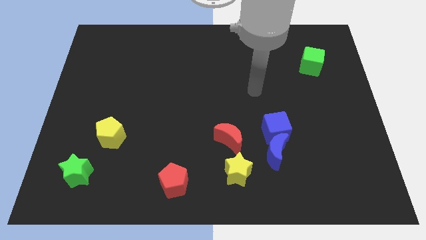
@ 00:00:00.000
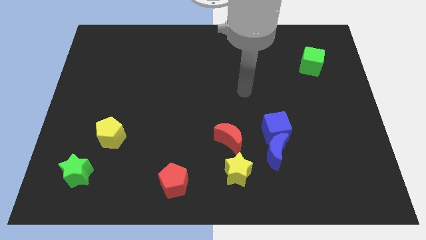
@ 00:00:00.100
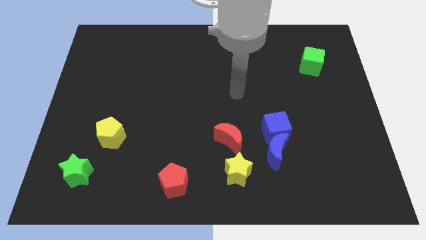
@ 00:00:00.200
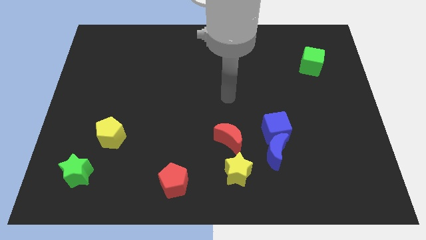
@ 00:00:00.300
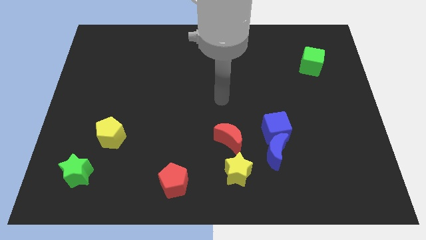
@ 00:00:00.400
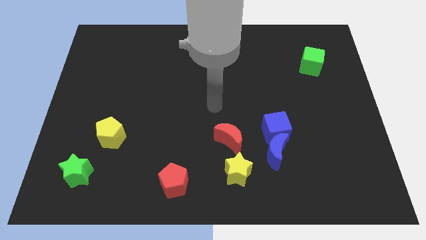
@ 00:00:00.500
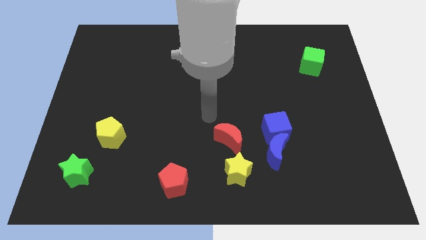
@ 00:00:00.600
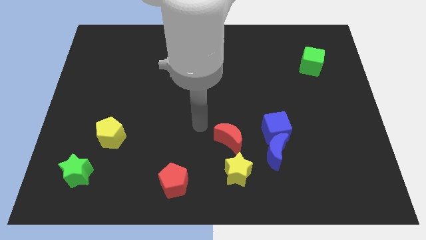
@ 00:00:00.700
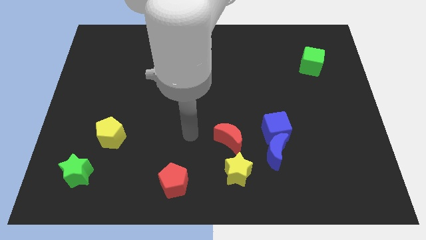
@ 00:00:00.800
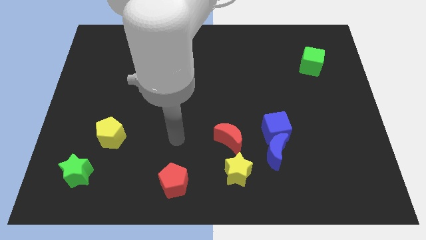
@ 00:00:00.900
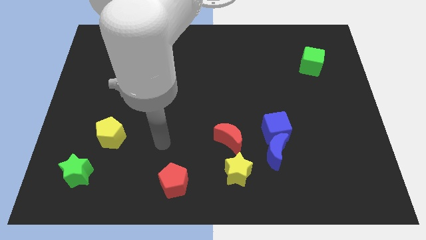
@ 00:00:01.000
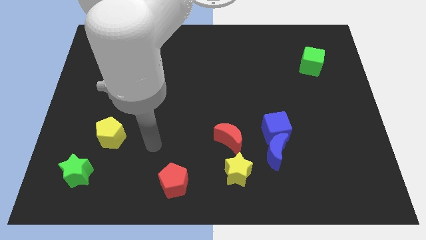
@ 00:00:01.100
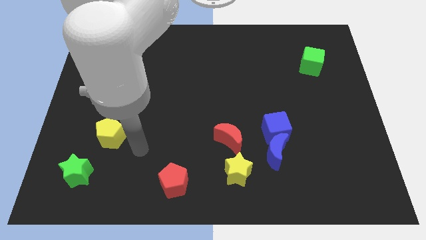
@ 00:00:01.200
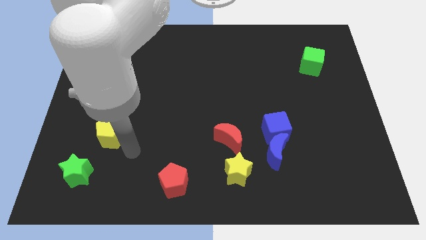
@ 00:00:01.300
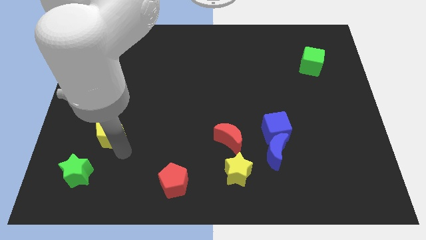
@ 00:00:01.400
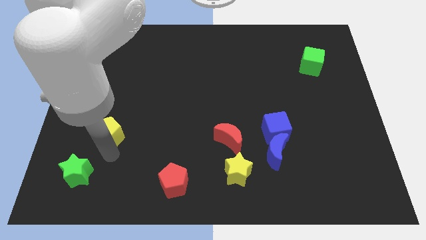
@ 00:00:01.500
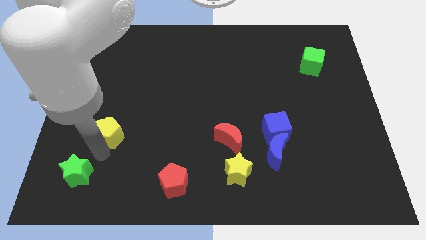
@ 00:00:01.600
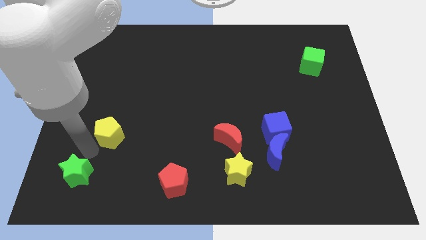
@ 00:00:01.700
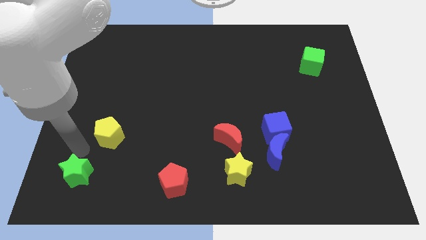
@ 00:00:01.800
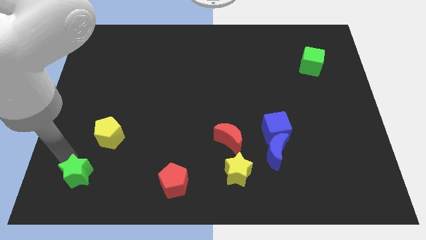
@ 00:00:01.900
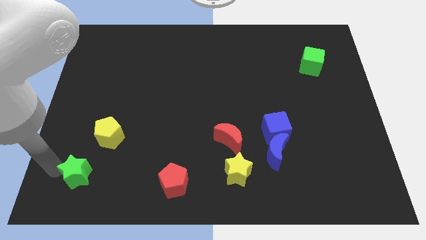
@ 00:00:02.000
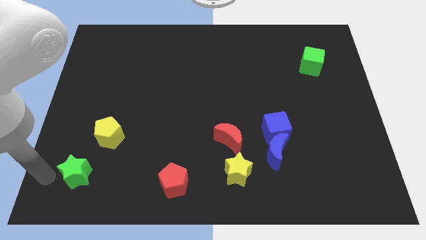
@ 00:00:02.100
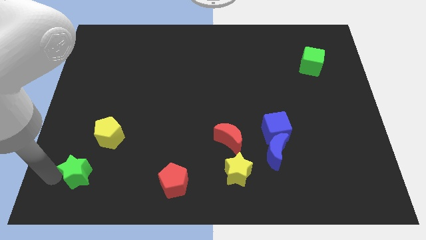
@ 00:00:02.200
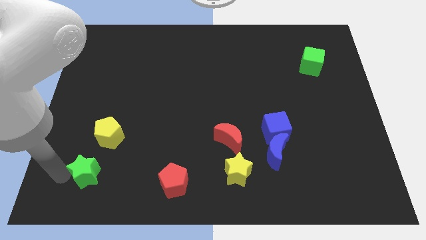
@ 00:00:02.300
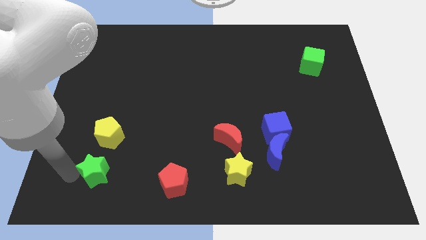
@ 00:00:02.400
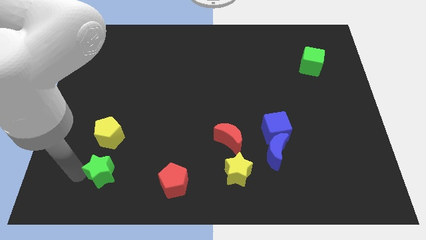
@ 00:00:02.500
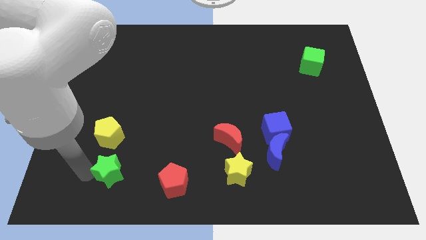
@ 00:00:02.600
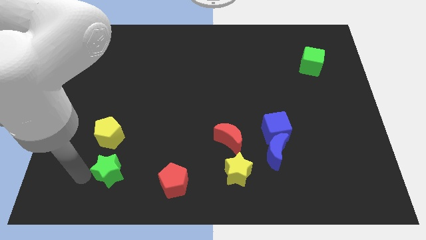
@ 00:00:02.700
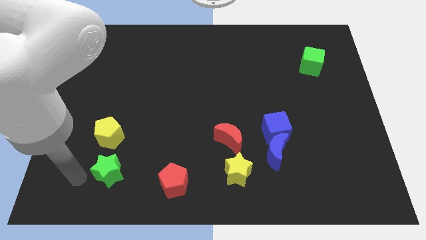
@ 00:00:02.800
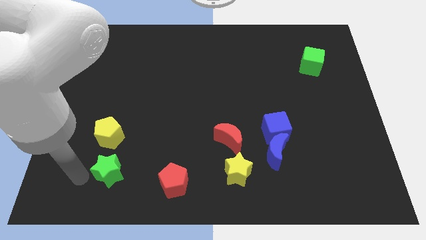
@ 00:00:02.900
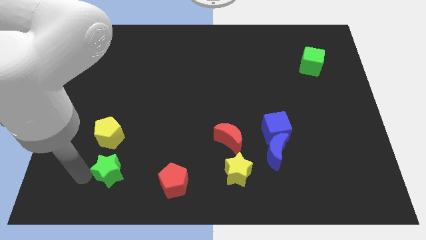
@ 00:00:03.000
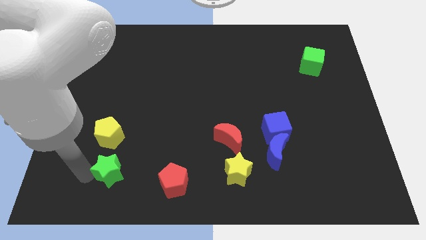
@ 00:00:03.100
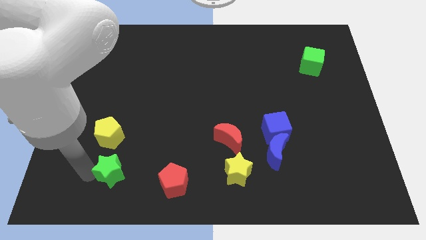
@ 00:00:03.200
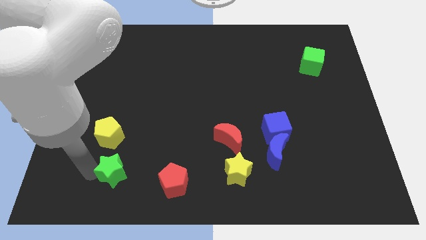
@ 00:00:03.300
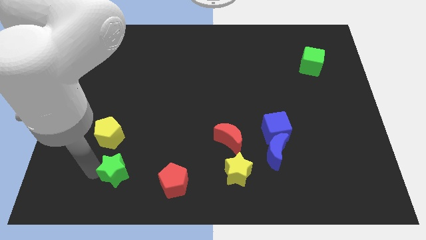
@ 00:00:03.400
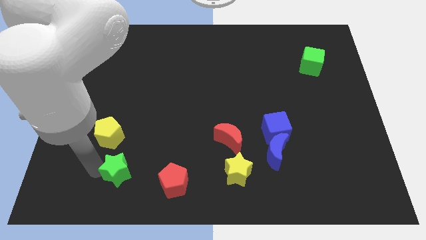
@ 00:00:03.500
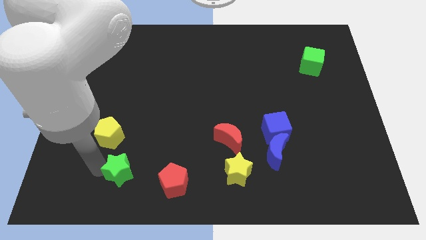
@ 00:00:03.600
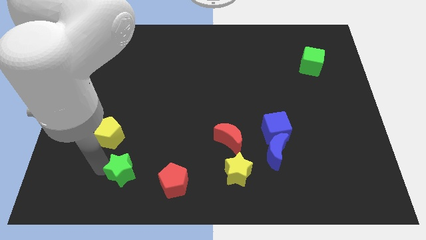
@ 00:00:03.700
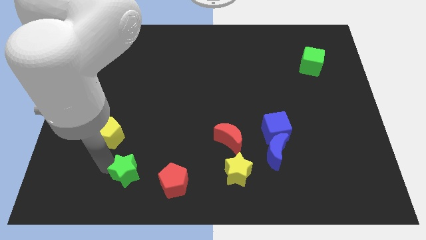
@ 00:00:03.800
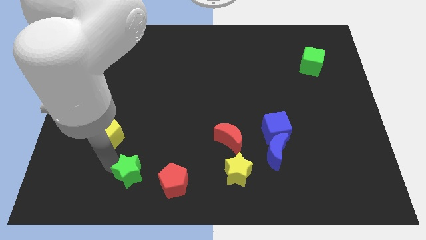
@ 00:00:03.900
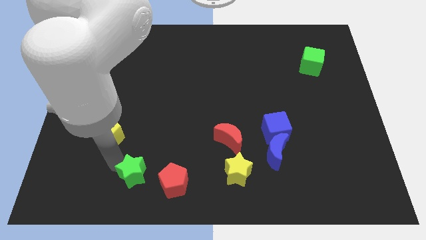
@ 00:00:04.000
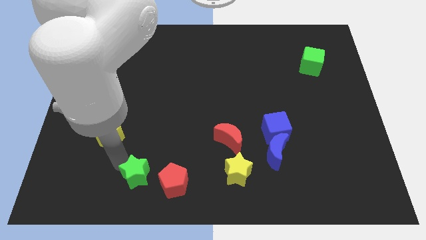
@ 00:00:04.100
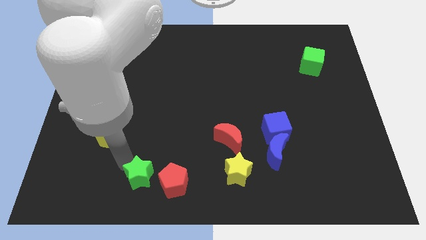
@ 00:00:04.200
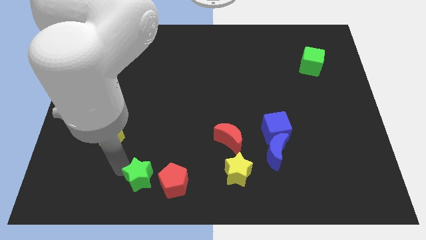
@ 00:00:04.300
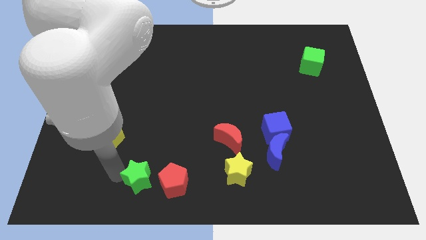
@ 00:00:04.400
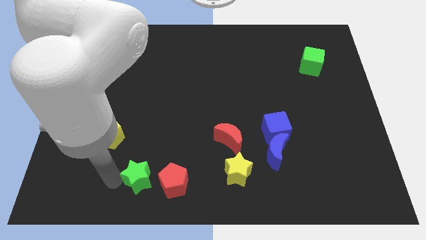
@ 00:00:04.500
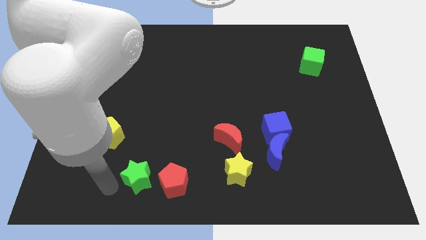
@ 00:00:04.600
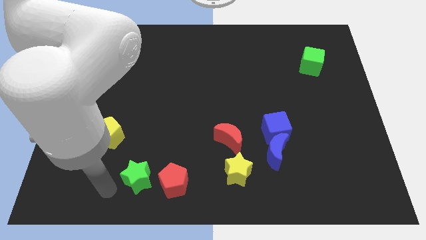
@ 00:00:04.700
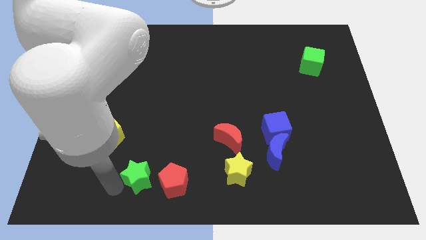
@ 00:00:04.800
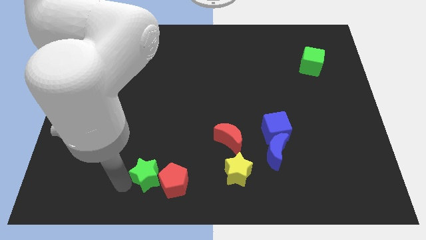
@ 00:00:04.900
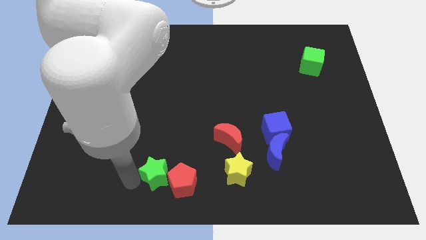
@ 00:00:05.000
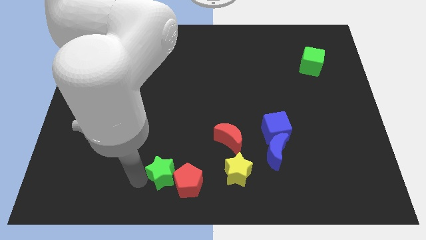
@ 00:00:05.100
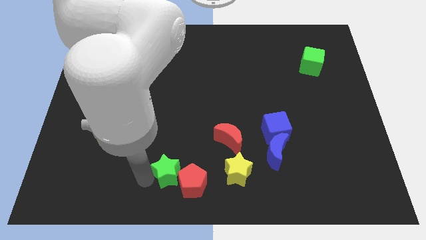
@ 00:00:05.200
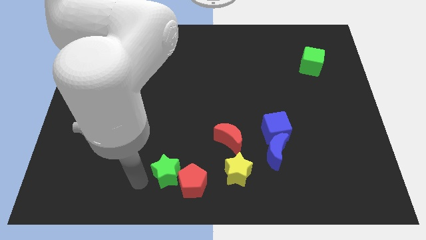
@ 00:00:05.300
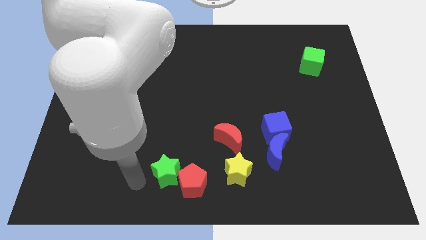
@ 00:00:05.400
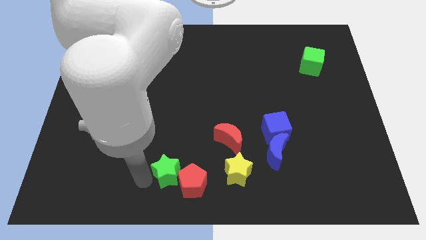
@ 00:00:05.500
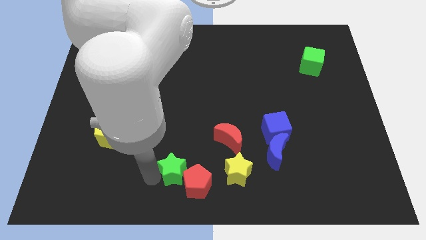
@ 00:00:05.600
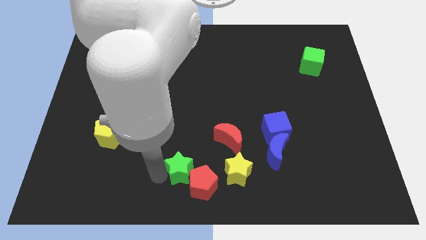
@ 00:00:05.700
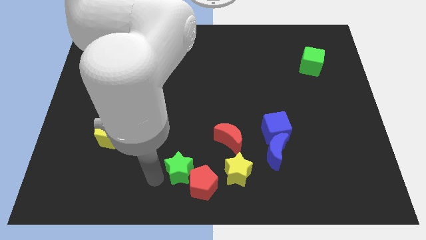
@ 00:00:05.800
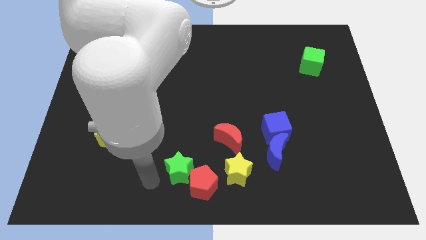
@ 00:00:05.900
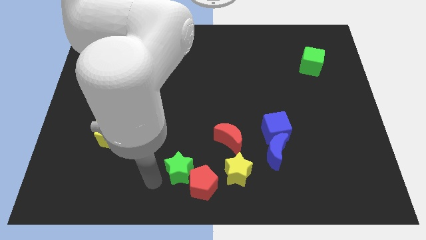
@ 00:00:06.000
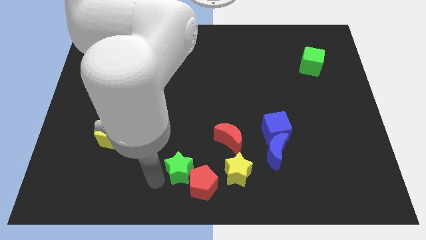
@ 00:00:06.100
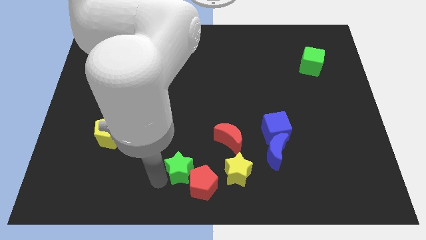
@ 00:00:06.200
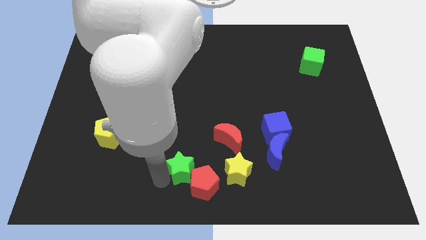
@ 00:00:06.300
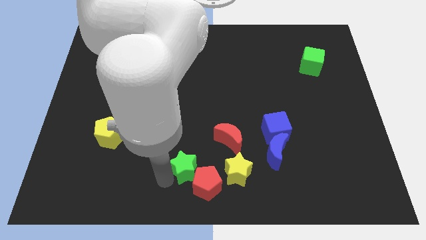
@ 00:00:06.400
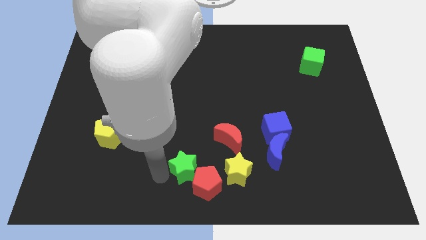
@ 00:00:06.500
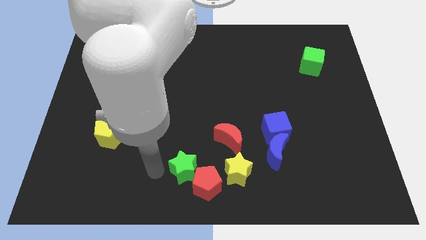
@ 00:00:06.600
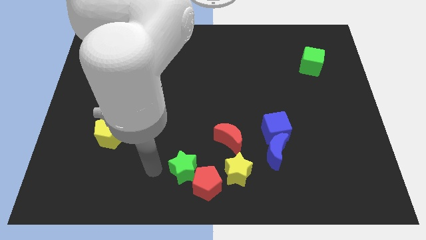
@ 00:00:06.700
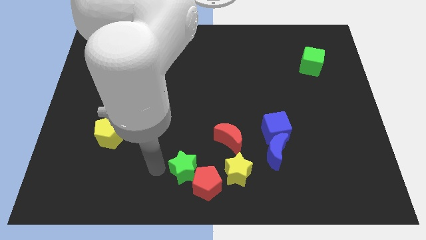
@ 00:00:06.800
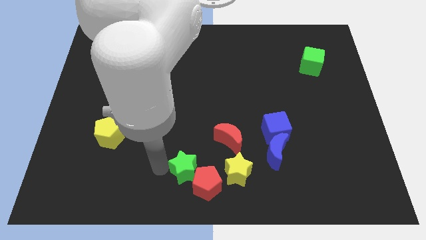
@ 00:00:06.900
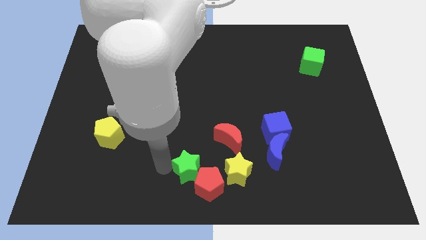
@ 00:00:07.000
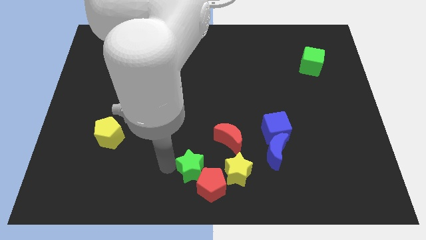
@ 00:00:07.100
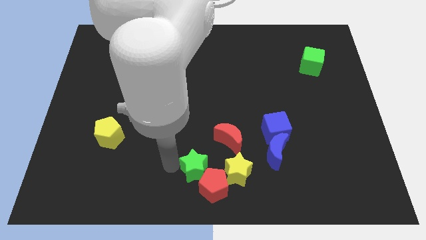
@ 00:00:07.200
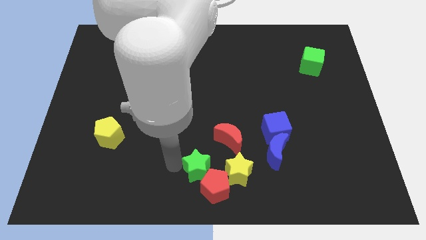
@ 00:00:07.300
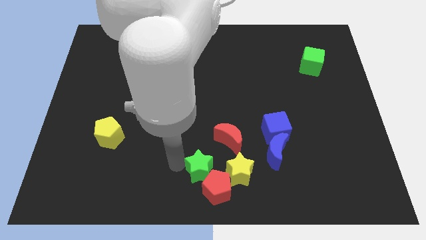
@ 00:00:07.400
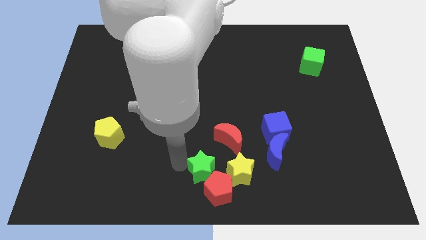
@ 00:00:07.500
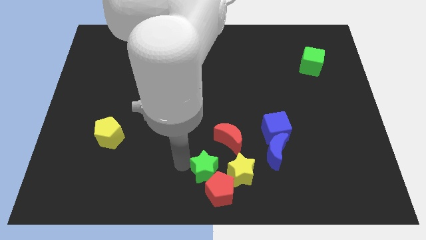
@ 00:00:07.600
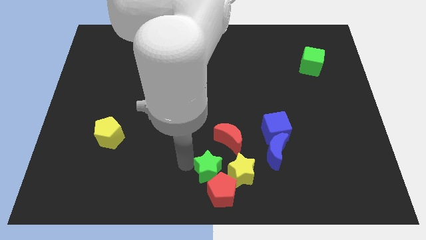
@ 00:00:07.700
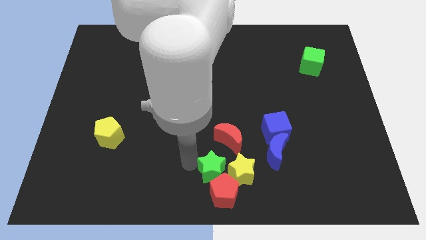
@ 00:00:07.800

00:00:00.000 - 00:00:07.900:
put the green star close to the yellow star
